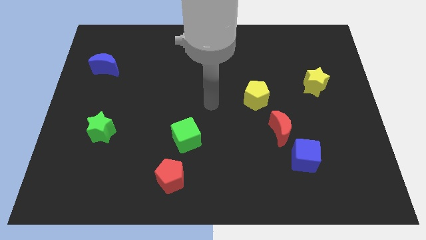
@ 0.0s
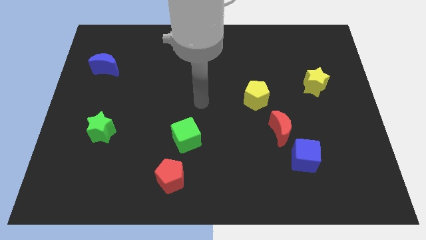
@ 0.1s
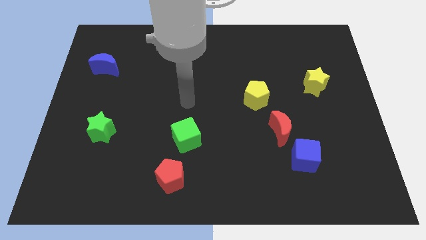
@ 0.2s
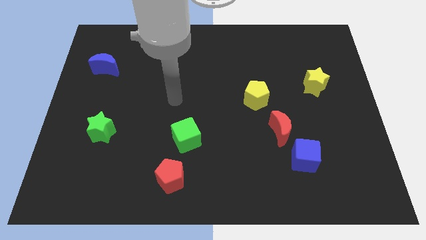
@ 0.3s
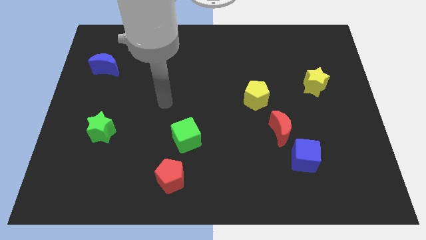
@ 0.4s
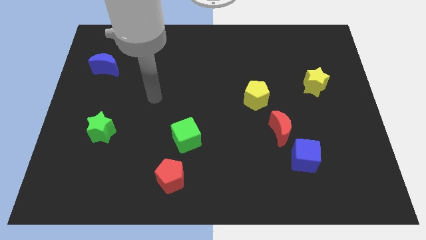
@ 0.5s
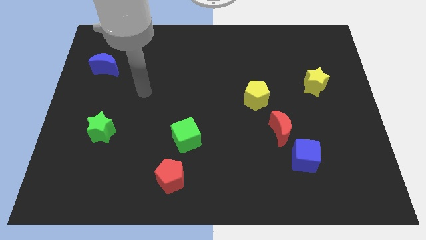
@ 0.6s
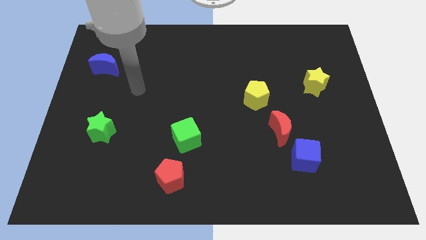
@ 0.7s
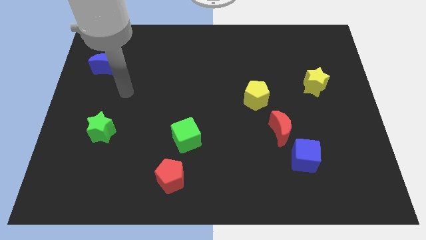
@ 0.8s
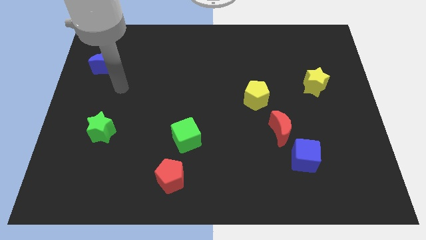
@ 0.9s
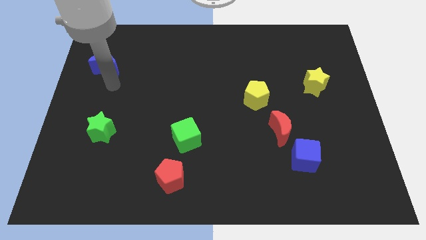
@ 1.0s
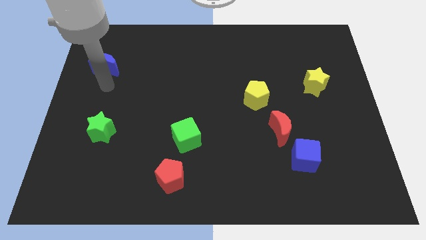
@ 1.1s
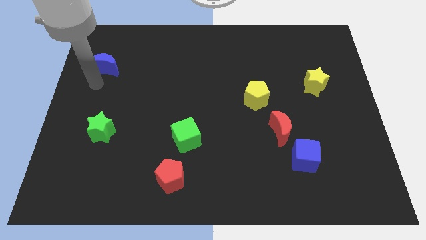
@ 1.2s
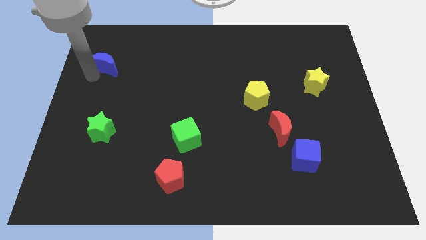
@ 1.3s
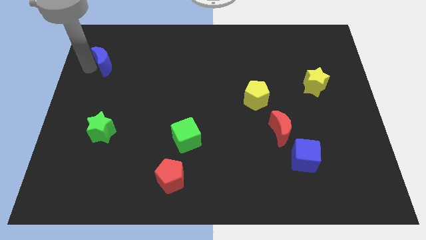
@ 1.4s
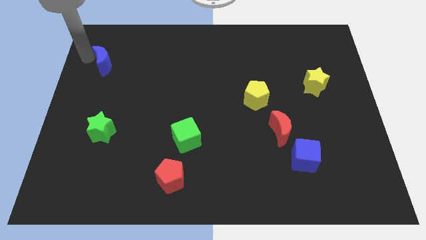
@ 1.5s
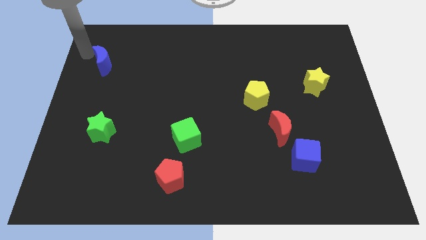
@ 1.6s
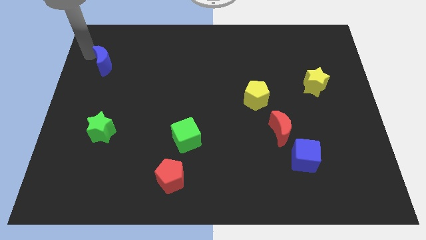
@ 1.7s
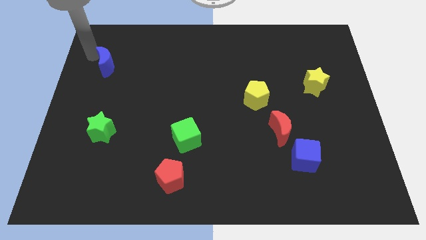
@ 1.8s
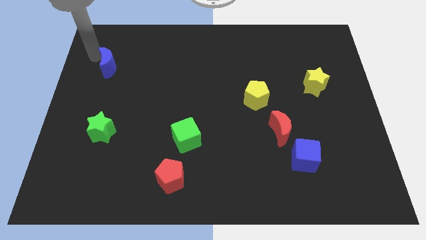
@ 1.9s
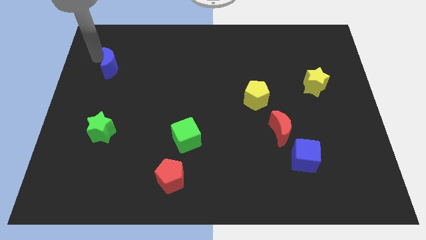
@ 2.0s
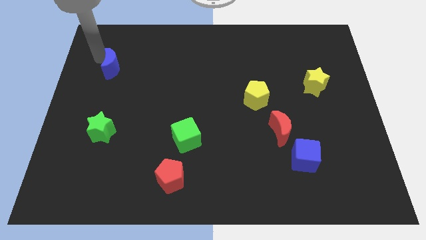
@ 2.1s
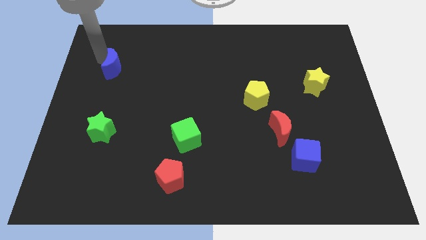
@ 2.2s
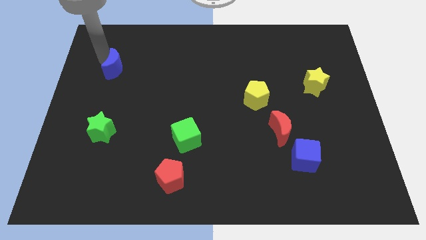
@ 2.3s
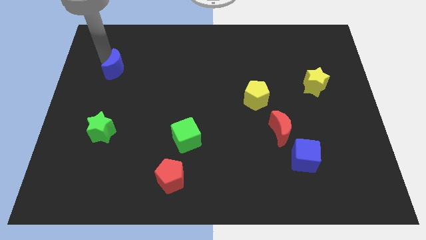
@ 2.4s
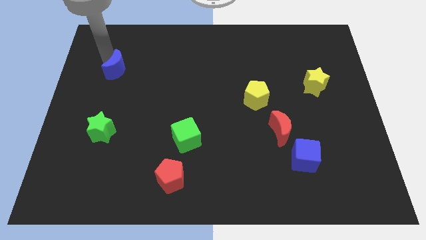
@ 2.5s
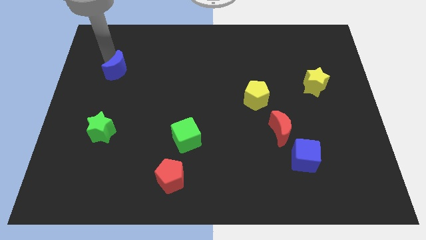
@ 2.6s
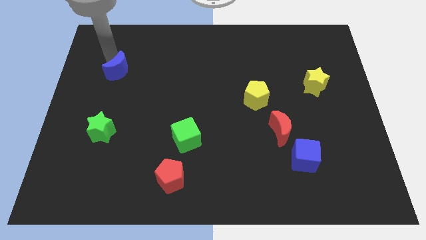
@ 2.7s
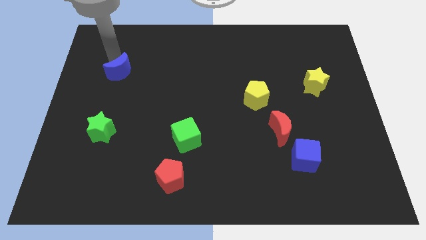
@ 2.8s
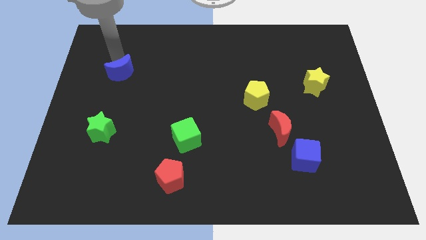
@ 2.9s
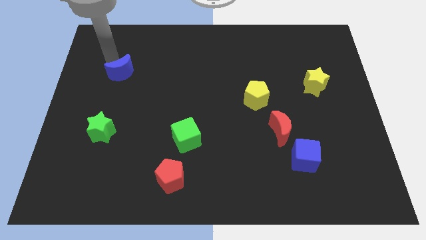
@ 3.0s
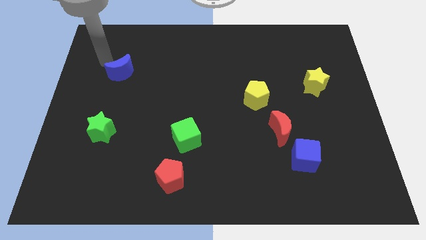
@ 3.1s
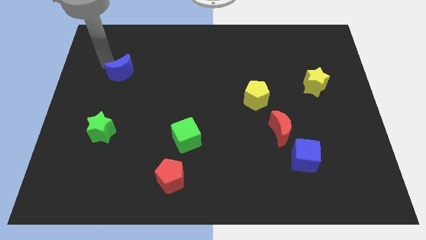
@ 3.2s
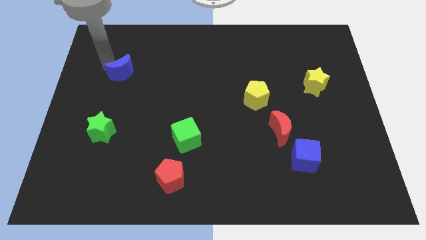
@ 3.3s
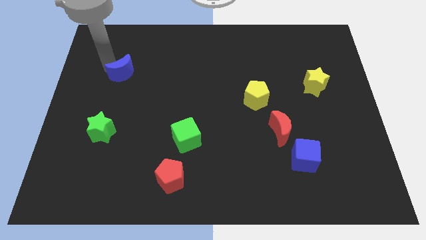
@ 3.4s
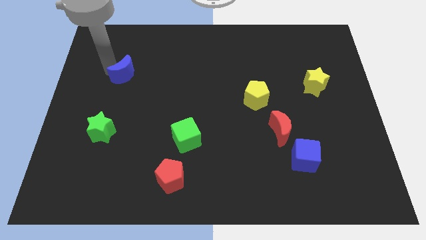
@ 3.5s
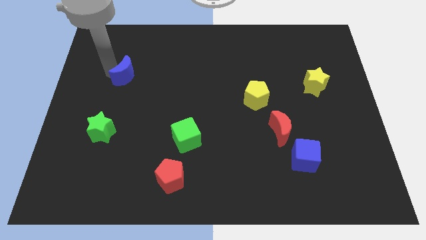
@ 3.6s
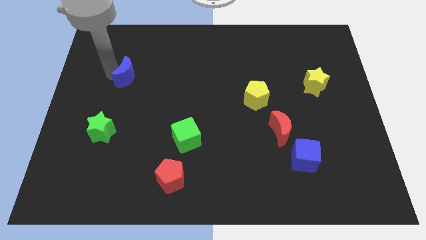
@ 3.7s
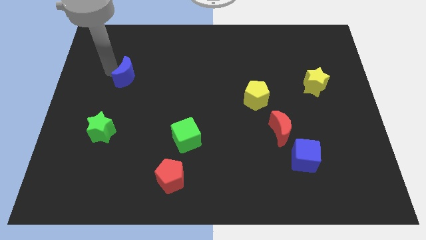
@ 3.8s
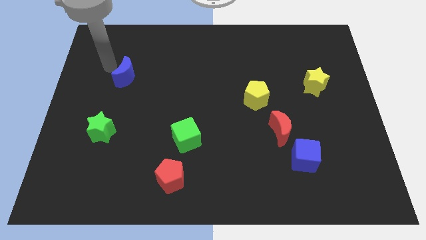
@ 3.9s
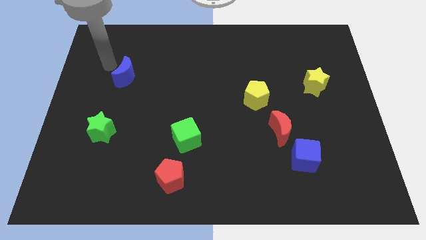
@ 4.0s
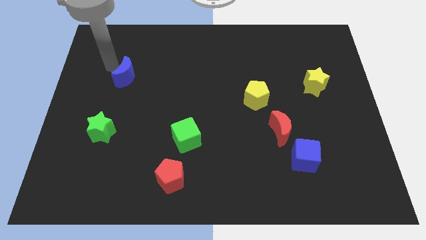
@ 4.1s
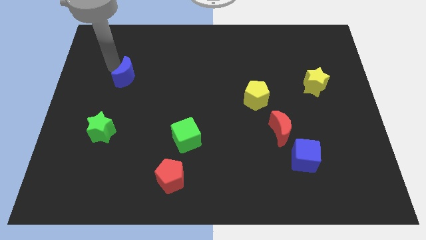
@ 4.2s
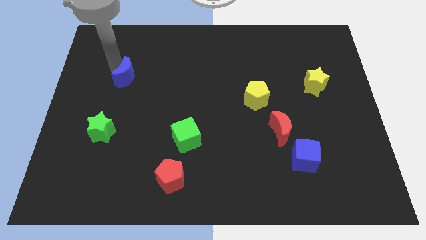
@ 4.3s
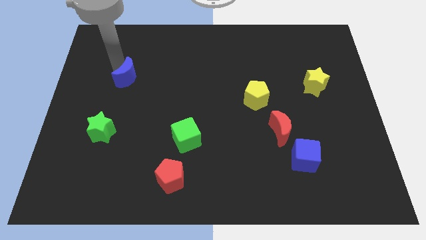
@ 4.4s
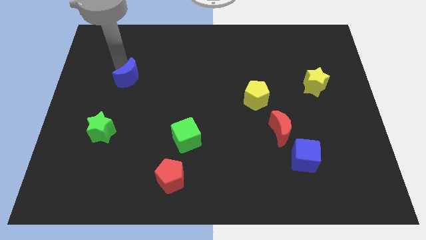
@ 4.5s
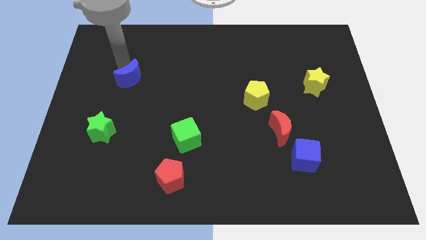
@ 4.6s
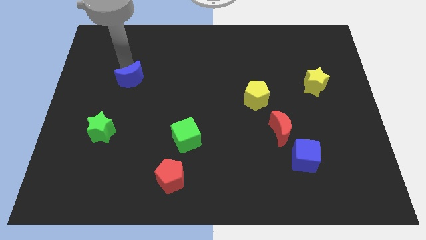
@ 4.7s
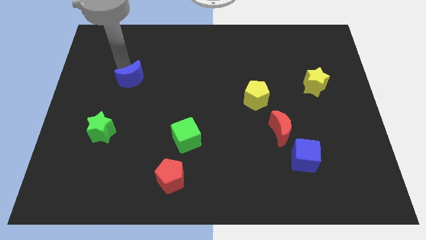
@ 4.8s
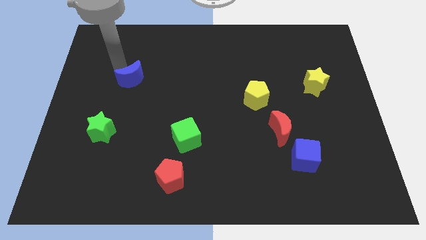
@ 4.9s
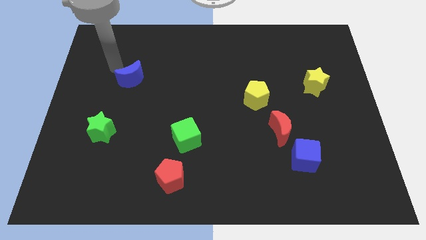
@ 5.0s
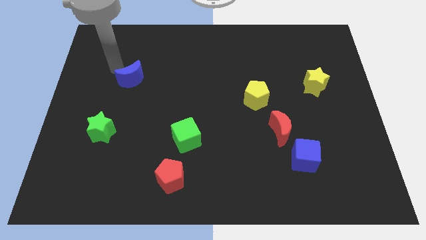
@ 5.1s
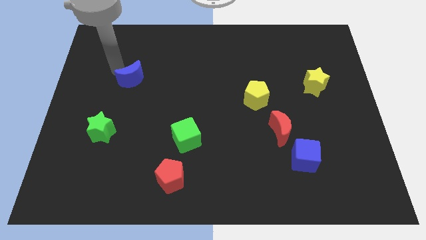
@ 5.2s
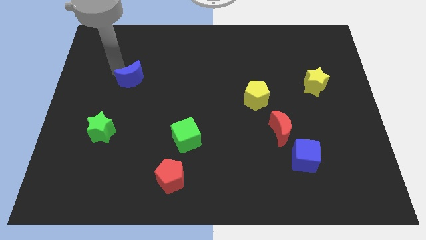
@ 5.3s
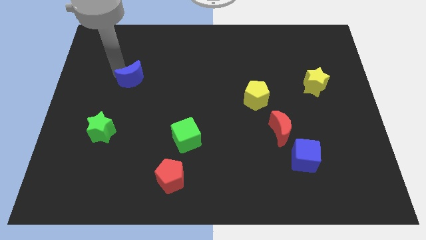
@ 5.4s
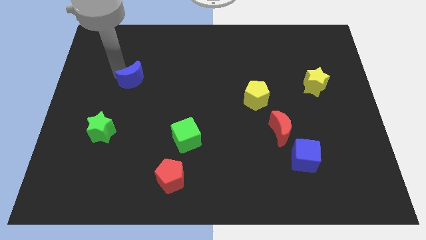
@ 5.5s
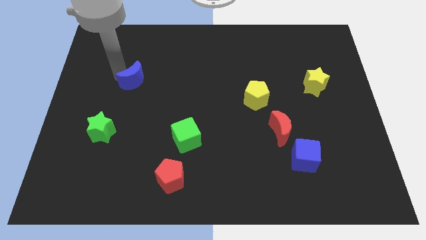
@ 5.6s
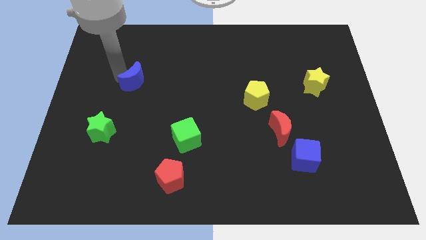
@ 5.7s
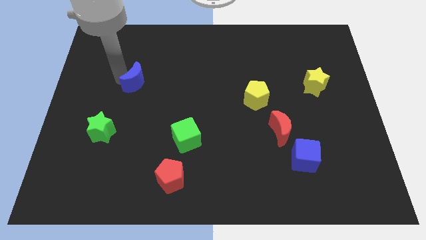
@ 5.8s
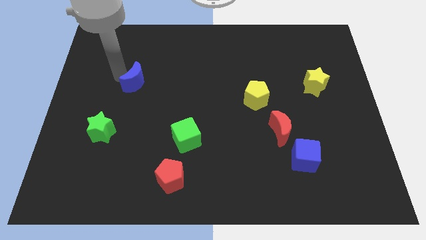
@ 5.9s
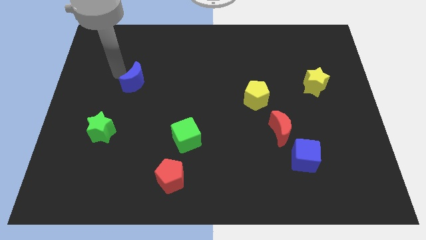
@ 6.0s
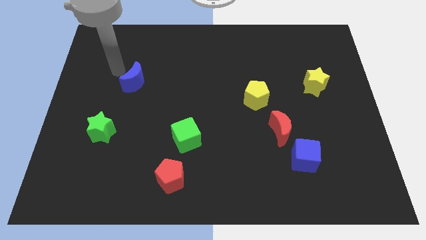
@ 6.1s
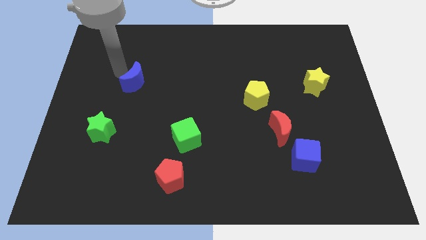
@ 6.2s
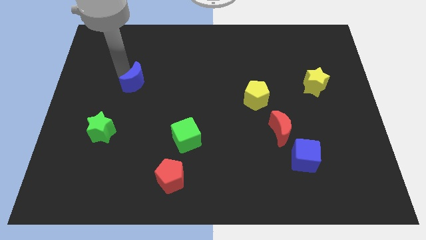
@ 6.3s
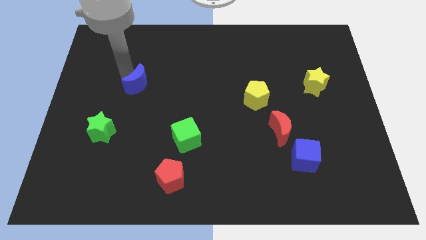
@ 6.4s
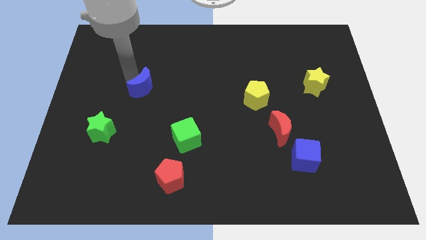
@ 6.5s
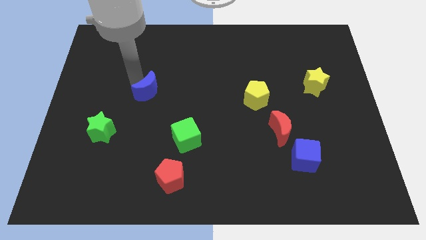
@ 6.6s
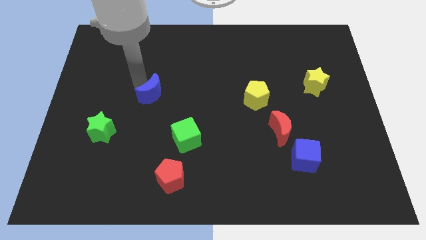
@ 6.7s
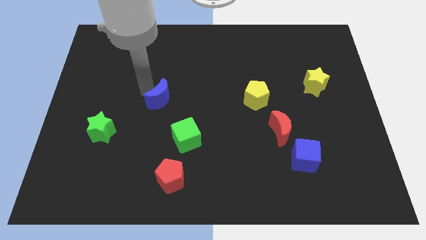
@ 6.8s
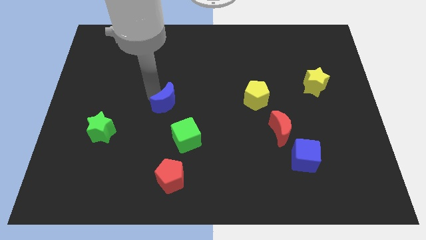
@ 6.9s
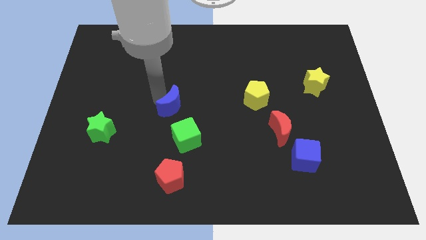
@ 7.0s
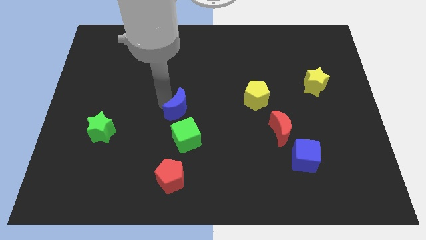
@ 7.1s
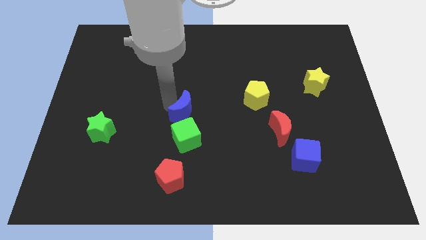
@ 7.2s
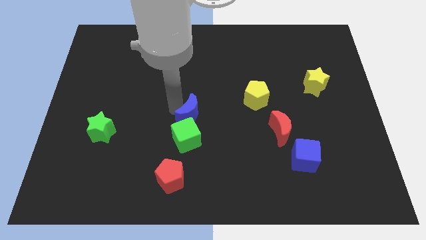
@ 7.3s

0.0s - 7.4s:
put the blue moon diagonally up and to the right of the green cube

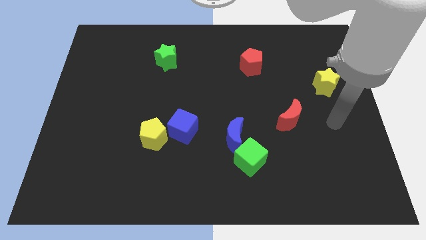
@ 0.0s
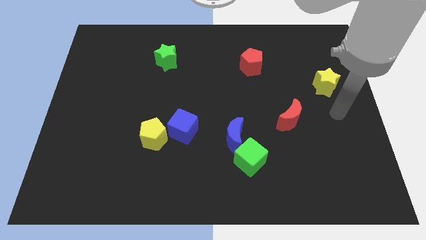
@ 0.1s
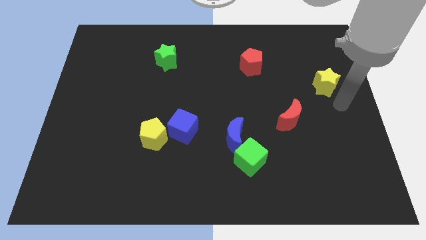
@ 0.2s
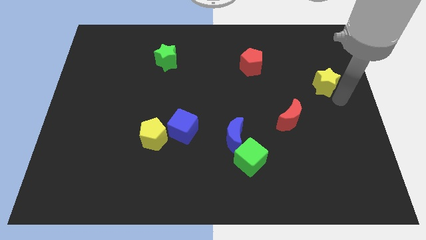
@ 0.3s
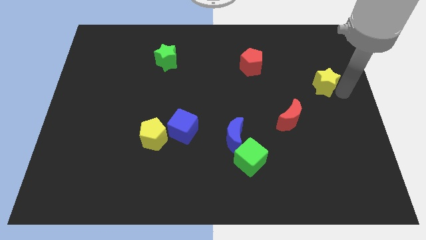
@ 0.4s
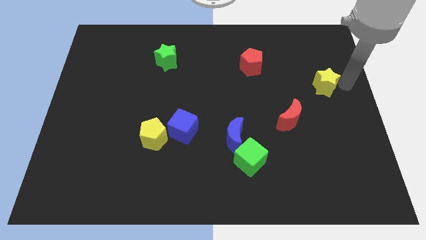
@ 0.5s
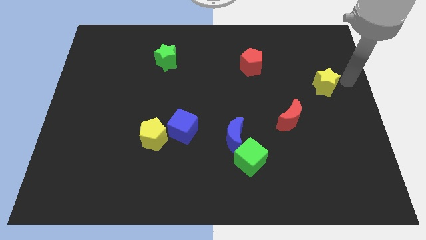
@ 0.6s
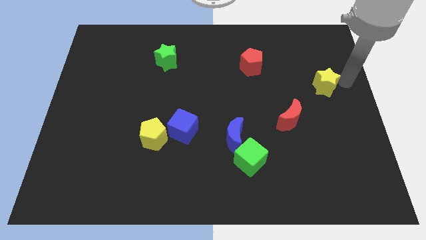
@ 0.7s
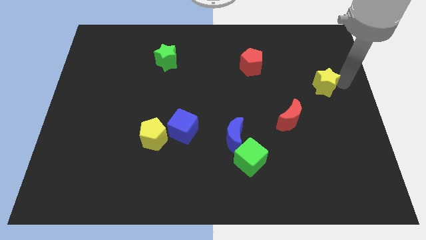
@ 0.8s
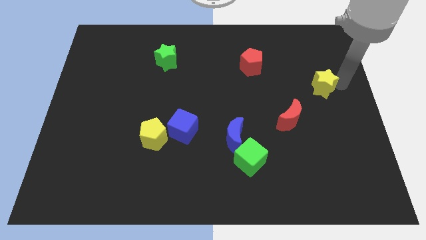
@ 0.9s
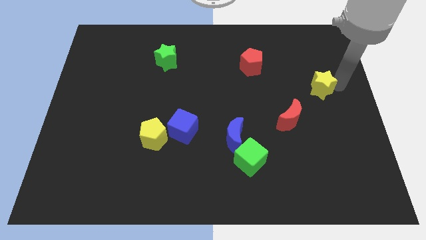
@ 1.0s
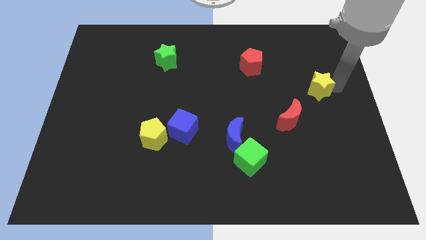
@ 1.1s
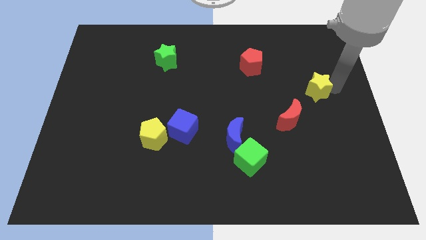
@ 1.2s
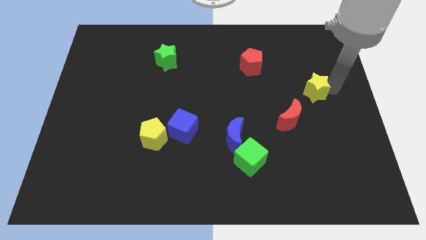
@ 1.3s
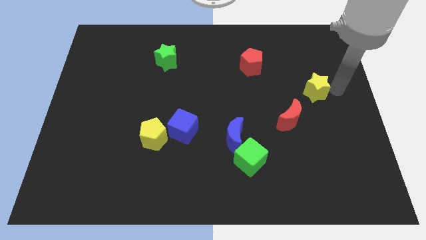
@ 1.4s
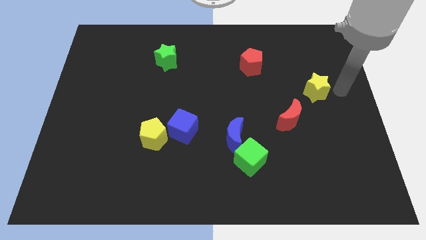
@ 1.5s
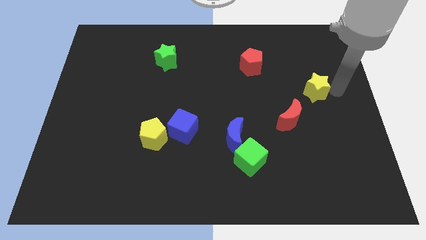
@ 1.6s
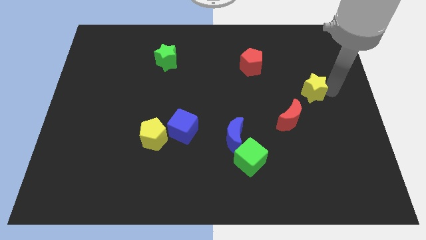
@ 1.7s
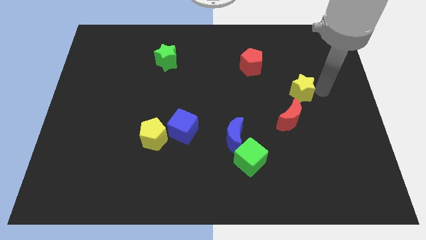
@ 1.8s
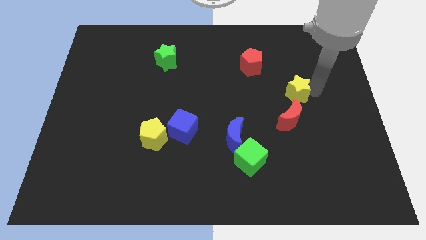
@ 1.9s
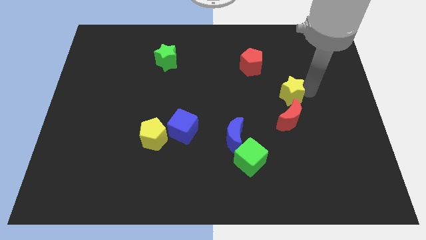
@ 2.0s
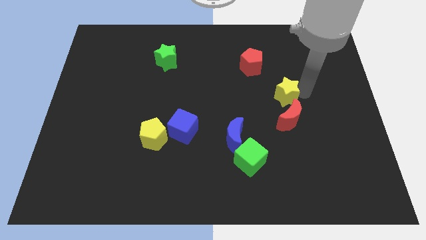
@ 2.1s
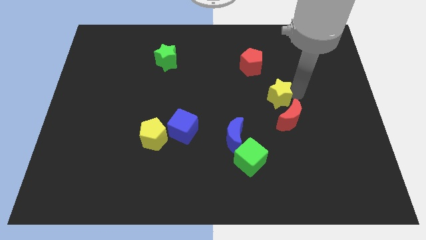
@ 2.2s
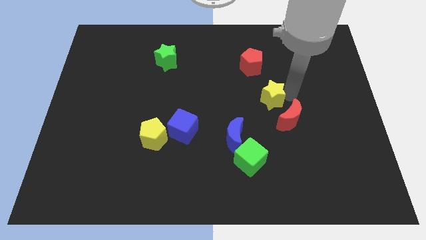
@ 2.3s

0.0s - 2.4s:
push the yellow star to the bottom side of the red pentagon
